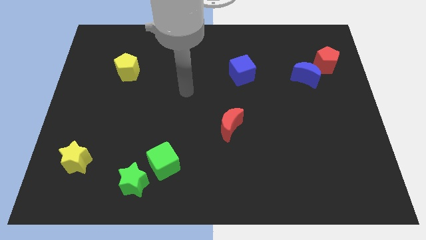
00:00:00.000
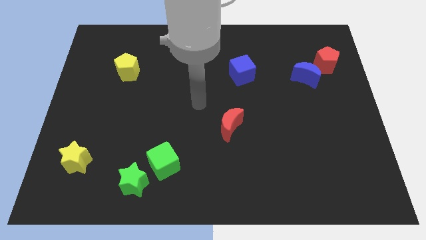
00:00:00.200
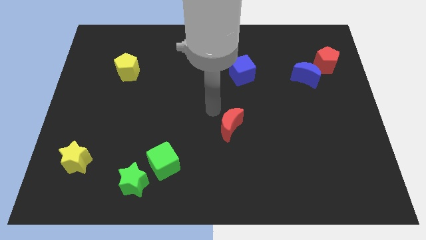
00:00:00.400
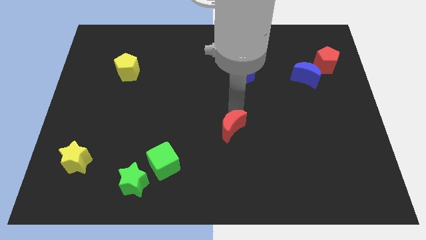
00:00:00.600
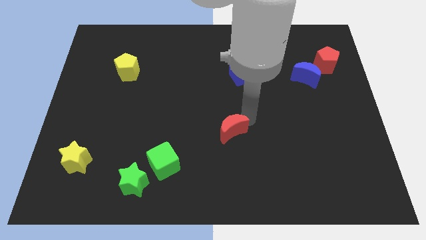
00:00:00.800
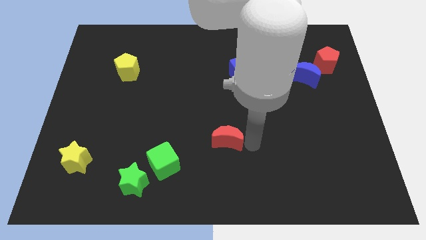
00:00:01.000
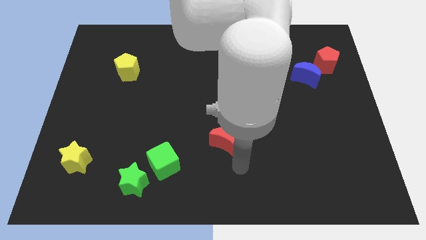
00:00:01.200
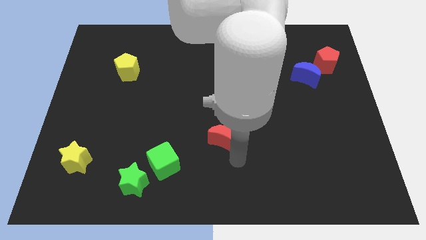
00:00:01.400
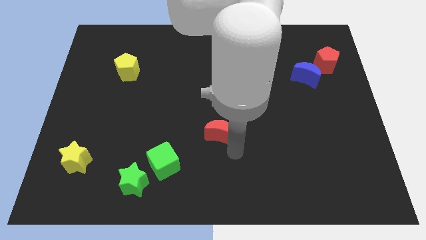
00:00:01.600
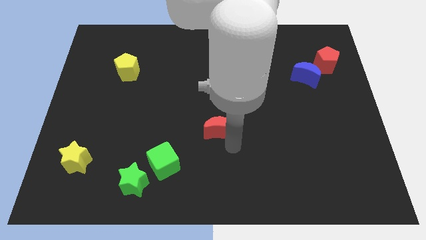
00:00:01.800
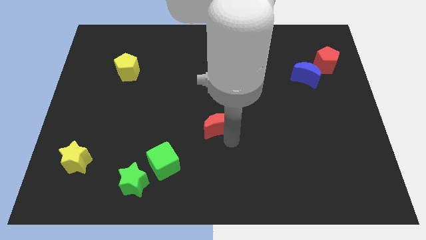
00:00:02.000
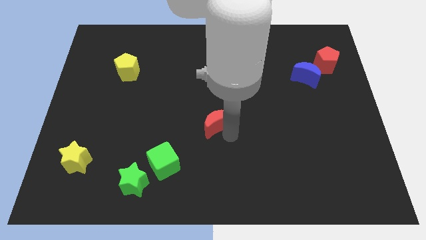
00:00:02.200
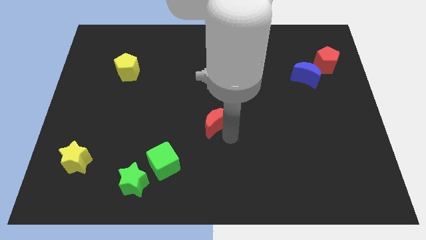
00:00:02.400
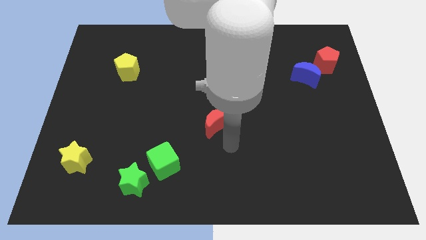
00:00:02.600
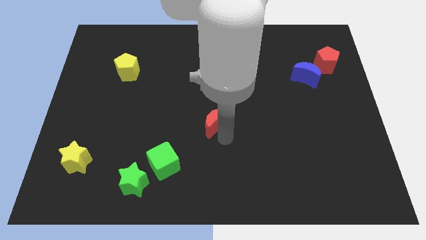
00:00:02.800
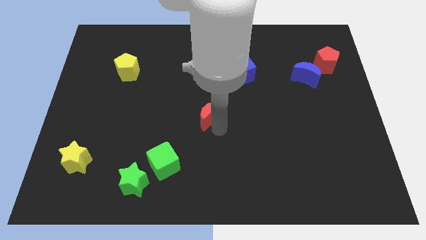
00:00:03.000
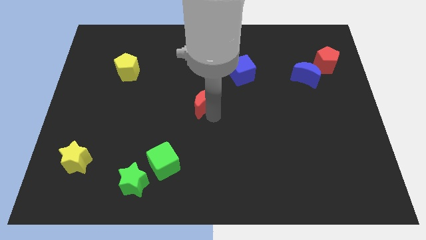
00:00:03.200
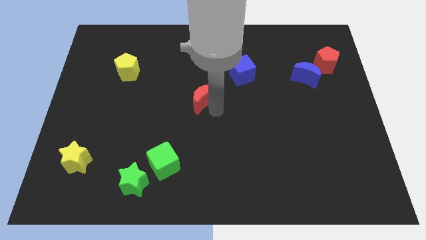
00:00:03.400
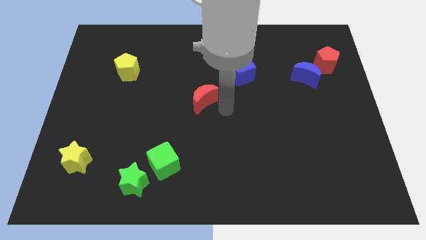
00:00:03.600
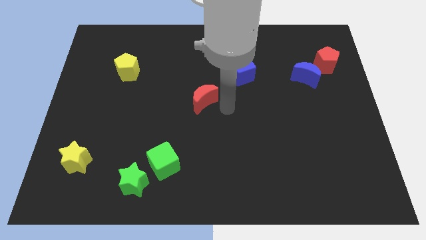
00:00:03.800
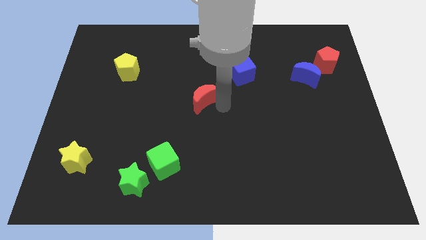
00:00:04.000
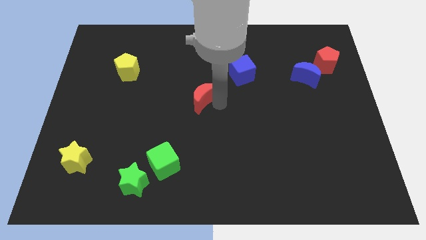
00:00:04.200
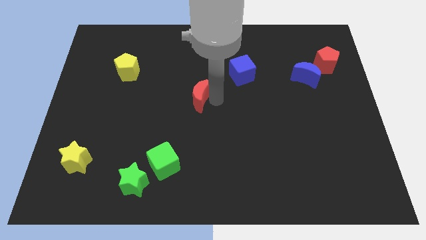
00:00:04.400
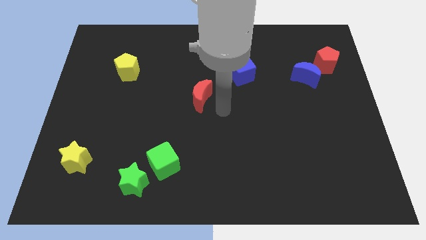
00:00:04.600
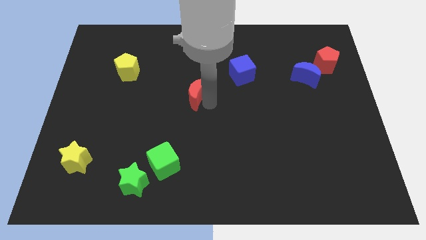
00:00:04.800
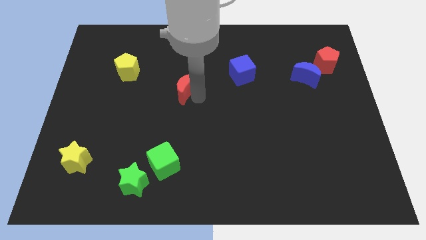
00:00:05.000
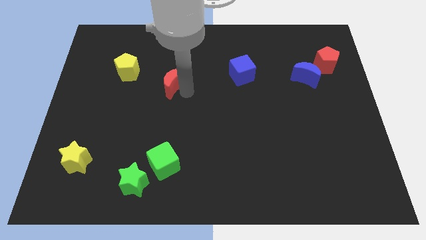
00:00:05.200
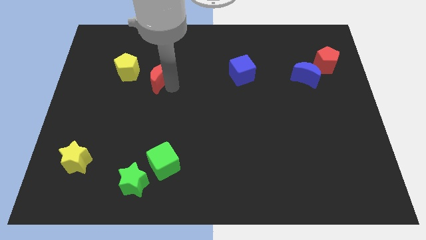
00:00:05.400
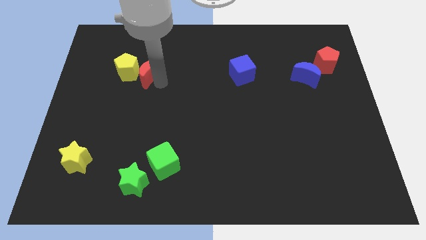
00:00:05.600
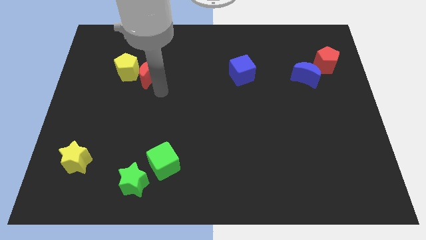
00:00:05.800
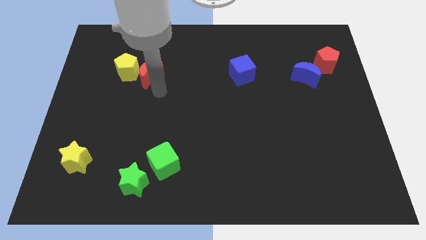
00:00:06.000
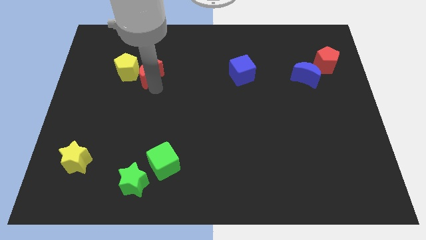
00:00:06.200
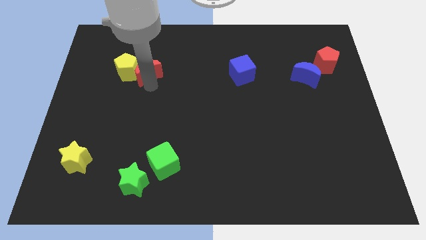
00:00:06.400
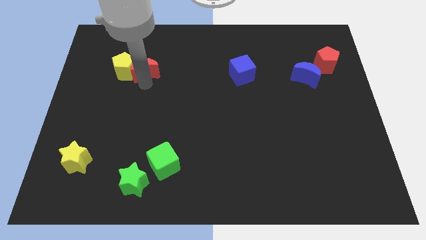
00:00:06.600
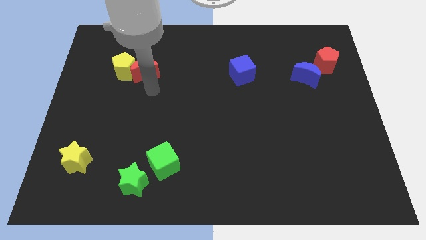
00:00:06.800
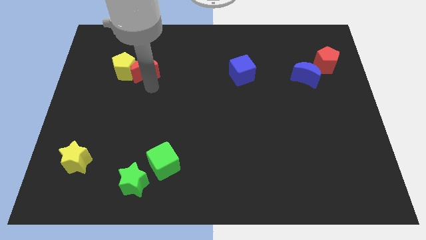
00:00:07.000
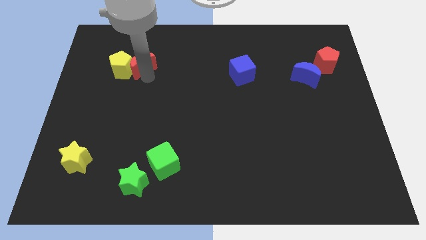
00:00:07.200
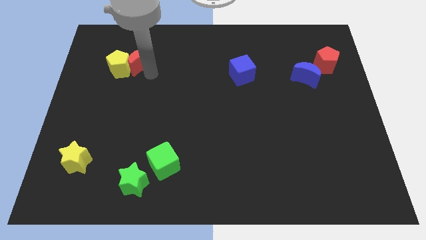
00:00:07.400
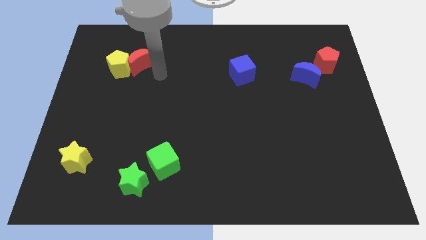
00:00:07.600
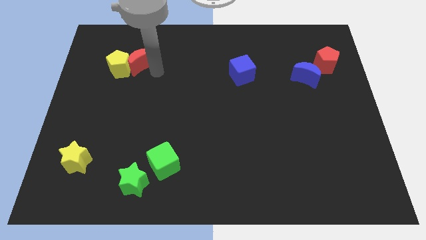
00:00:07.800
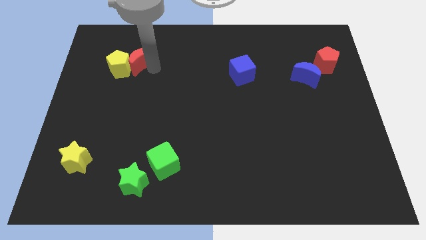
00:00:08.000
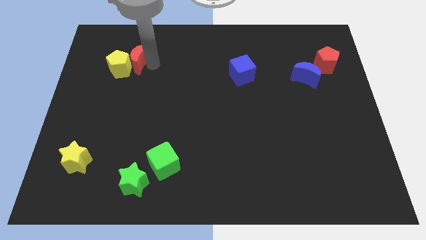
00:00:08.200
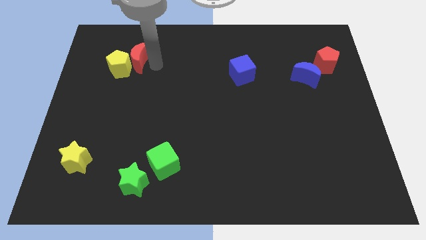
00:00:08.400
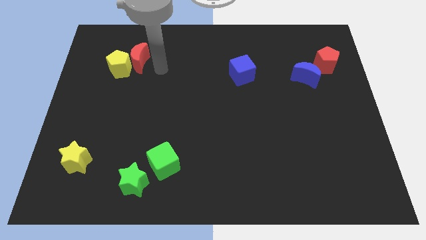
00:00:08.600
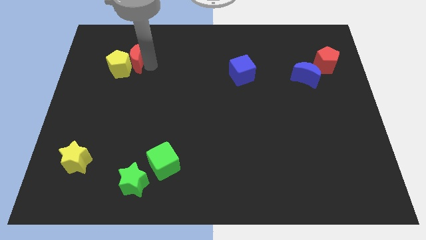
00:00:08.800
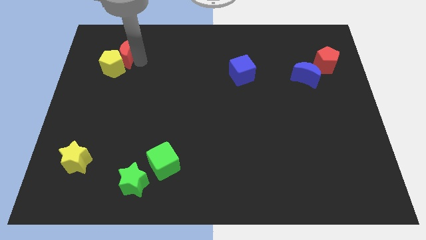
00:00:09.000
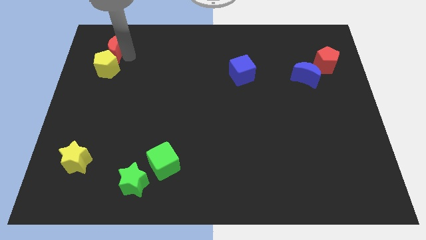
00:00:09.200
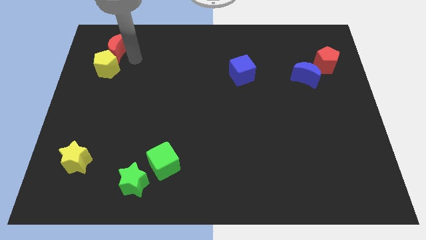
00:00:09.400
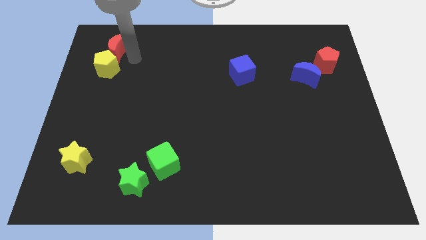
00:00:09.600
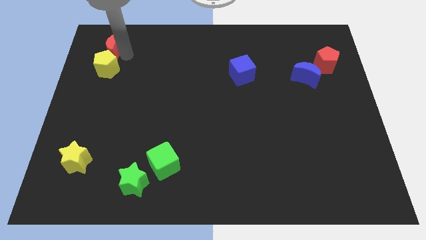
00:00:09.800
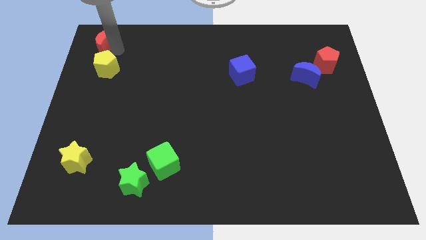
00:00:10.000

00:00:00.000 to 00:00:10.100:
put the red moon to the top left

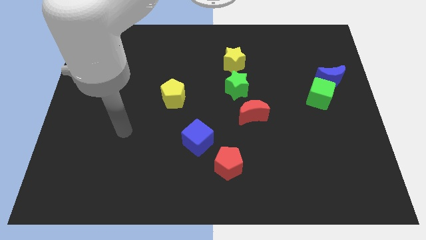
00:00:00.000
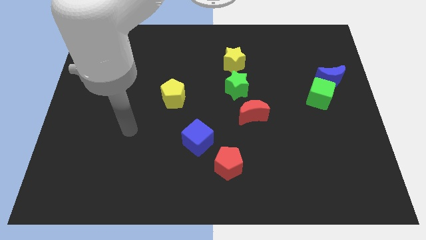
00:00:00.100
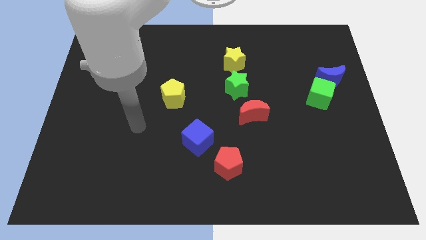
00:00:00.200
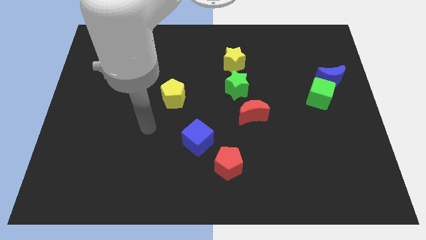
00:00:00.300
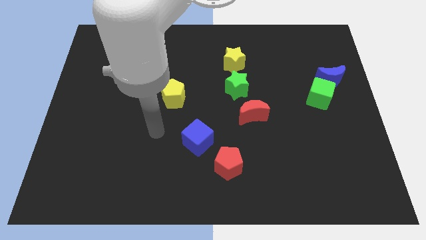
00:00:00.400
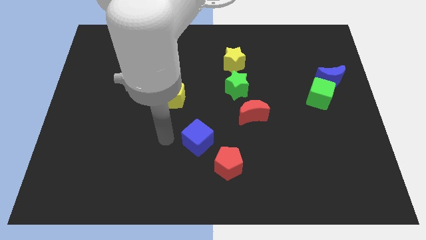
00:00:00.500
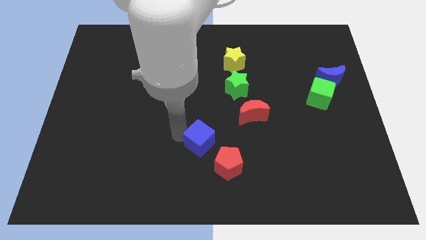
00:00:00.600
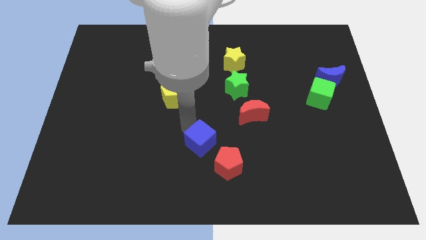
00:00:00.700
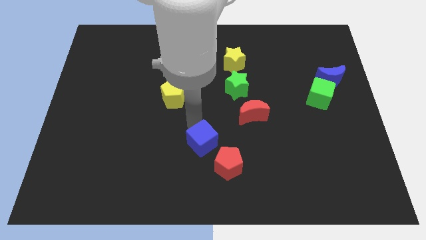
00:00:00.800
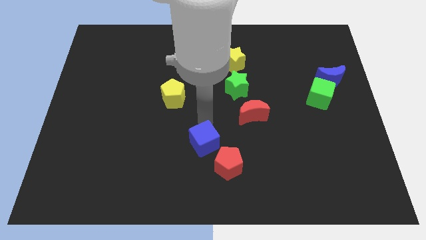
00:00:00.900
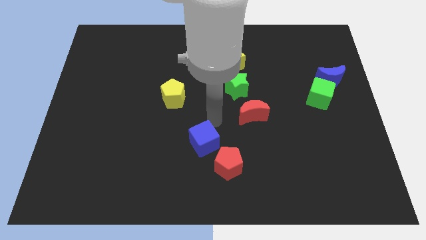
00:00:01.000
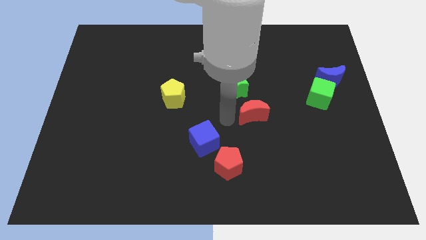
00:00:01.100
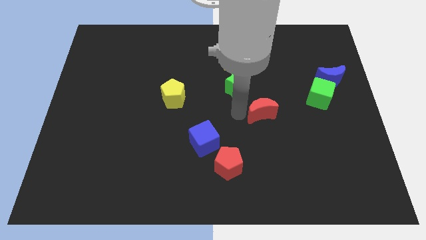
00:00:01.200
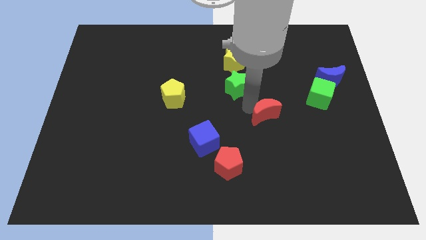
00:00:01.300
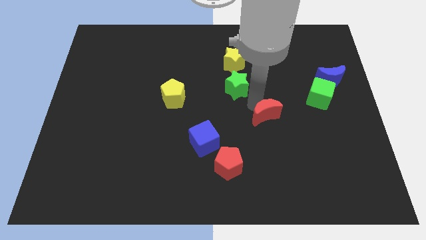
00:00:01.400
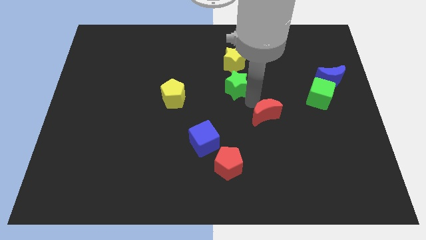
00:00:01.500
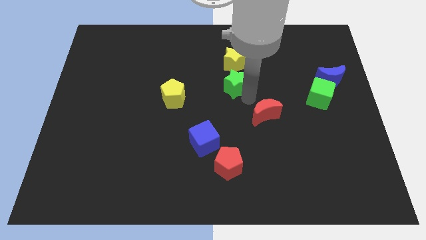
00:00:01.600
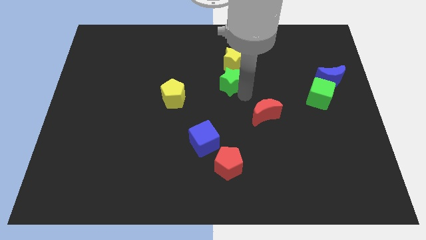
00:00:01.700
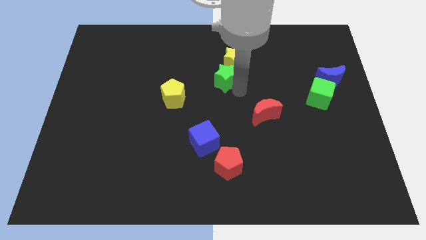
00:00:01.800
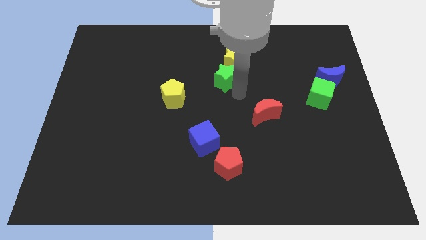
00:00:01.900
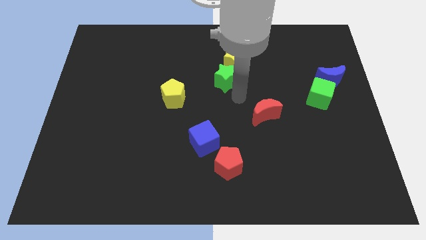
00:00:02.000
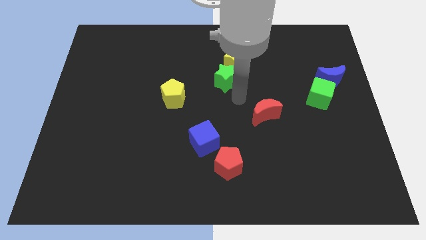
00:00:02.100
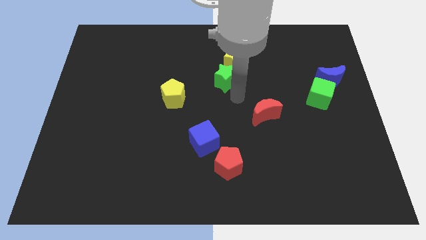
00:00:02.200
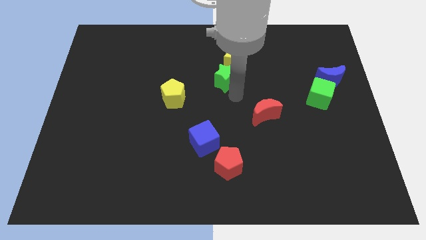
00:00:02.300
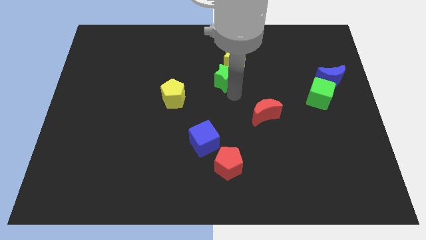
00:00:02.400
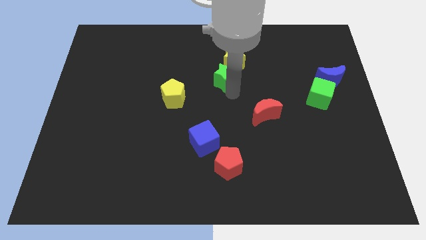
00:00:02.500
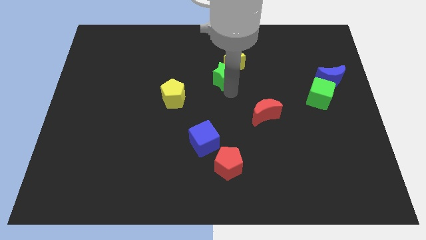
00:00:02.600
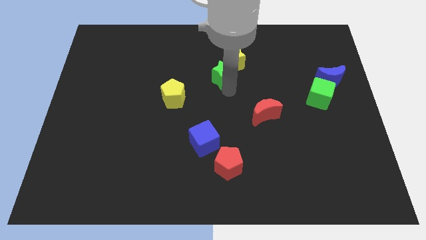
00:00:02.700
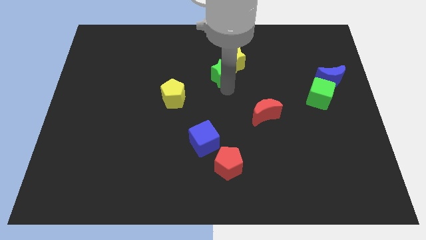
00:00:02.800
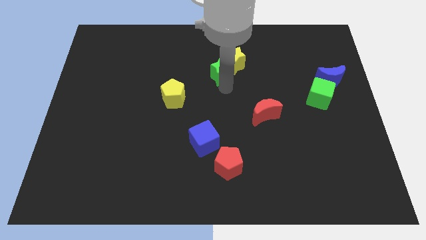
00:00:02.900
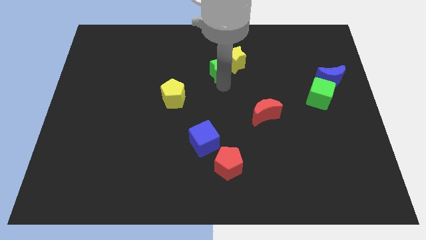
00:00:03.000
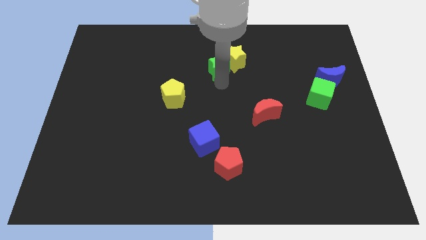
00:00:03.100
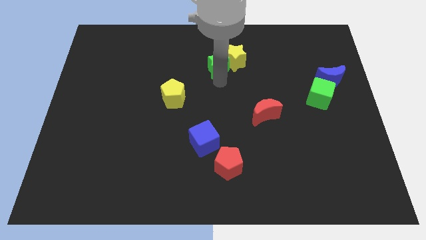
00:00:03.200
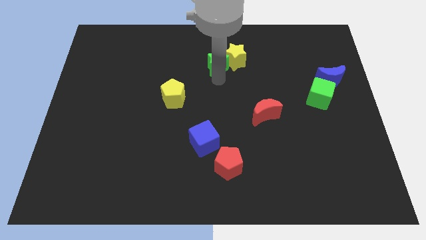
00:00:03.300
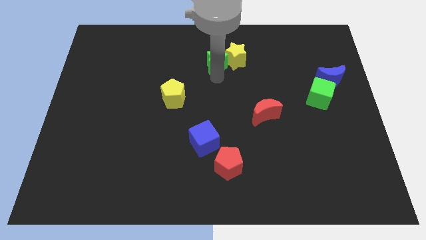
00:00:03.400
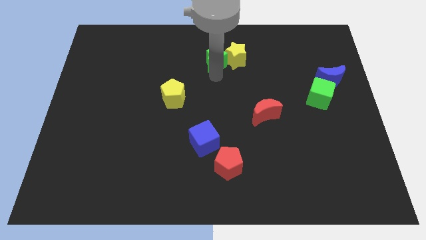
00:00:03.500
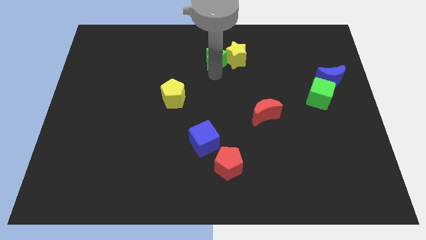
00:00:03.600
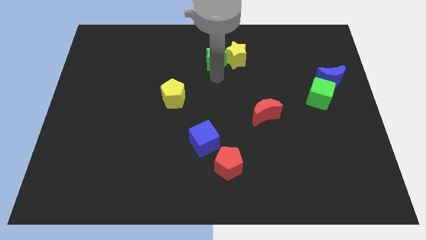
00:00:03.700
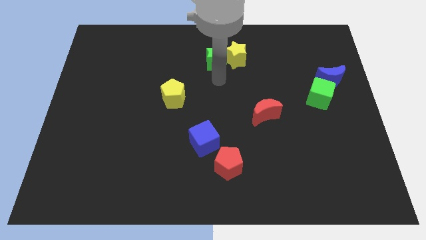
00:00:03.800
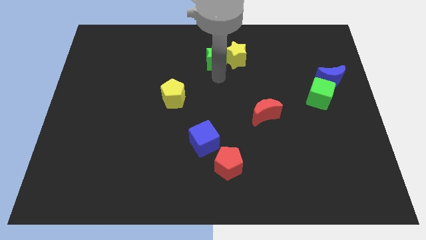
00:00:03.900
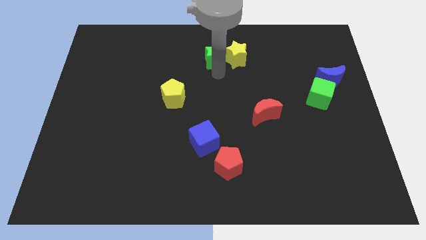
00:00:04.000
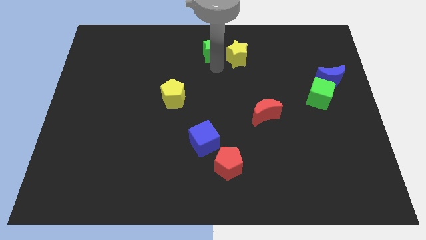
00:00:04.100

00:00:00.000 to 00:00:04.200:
move the green star to the towards your base
